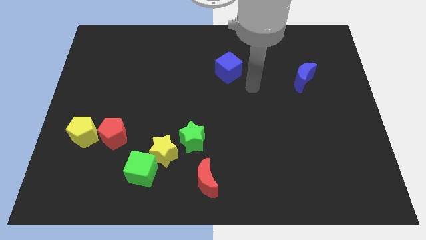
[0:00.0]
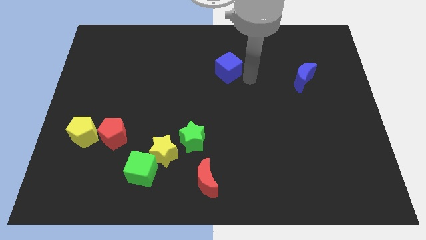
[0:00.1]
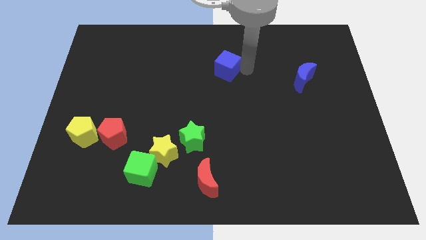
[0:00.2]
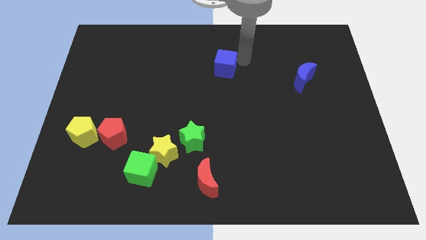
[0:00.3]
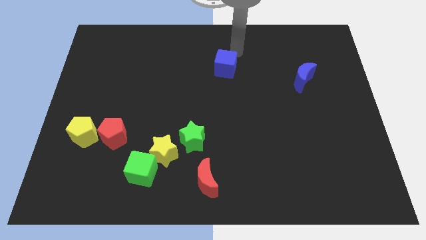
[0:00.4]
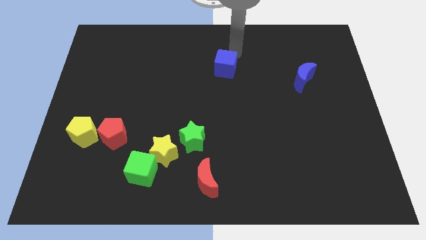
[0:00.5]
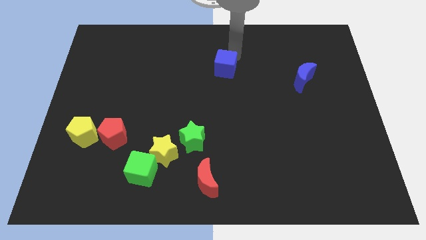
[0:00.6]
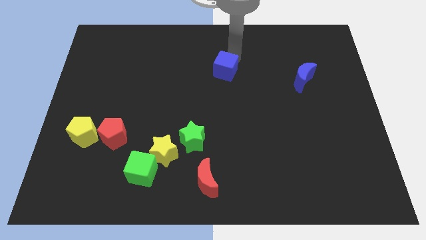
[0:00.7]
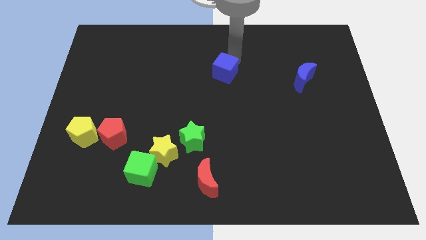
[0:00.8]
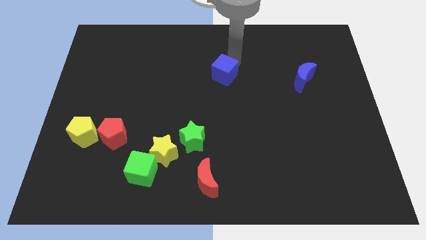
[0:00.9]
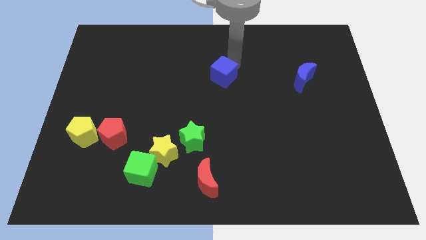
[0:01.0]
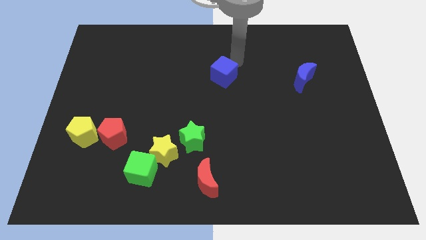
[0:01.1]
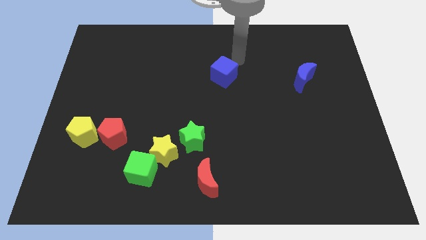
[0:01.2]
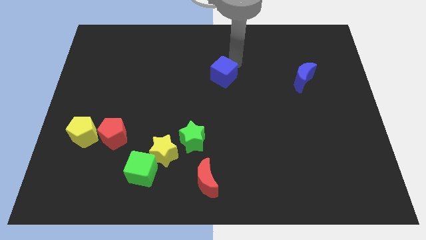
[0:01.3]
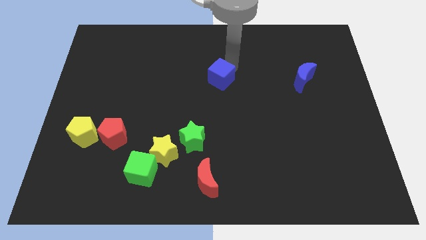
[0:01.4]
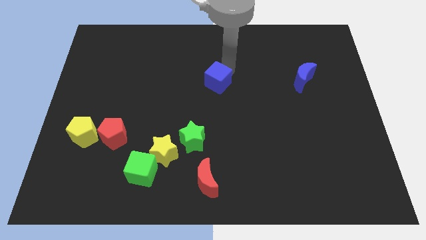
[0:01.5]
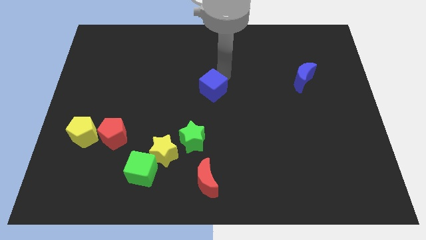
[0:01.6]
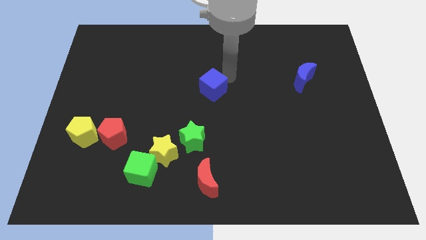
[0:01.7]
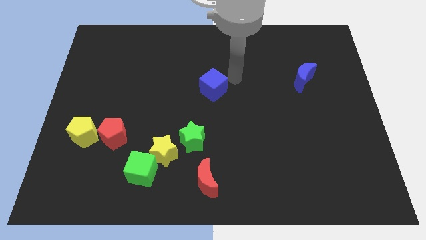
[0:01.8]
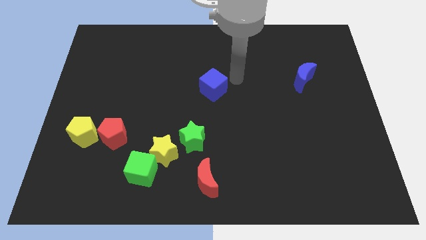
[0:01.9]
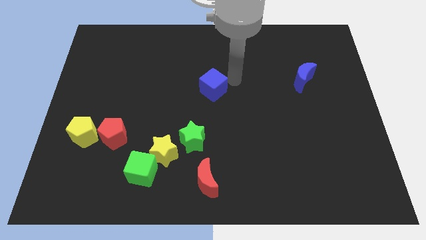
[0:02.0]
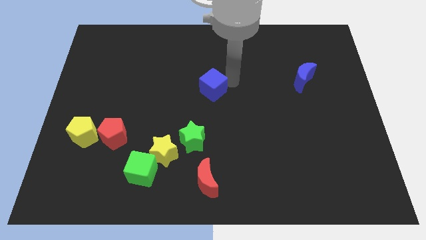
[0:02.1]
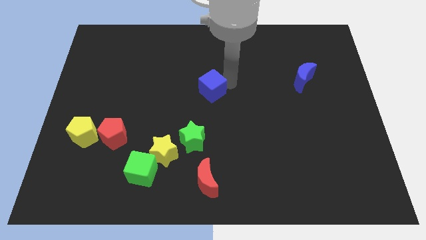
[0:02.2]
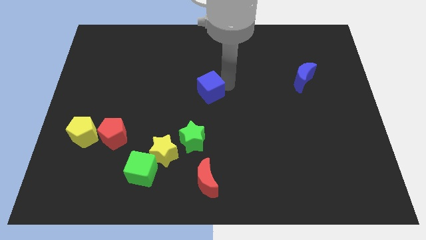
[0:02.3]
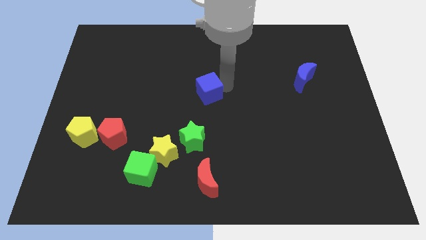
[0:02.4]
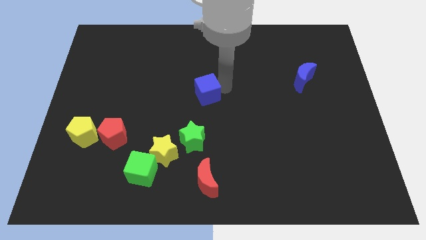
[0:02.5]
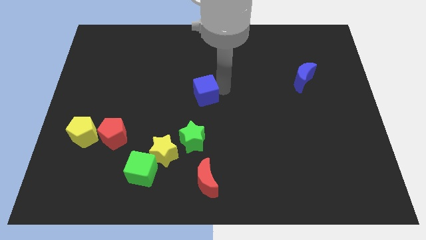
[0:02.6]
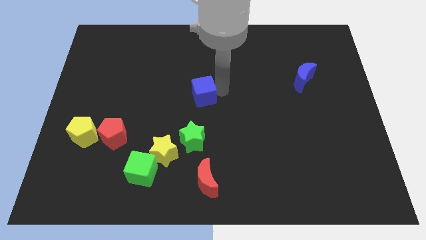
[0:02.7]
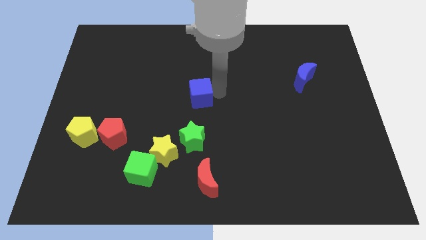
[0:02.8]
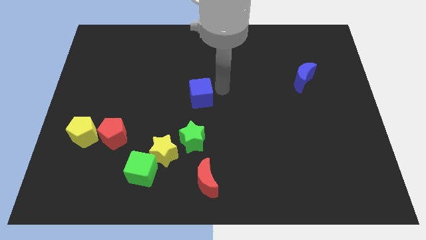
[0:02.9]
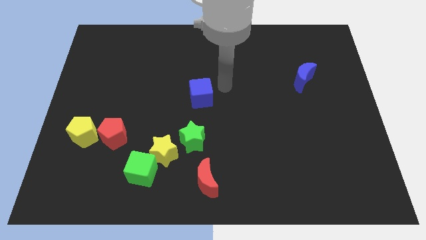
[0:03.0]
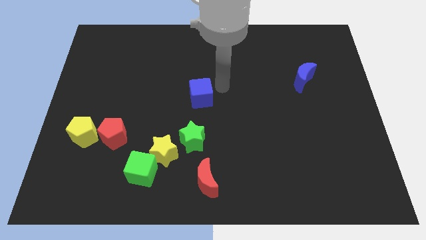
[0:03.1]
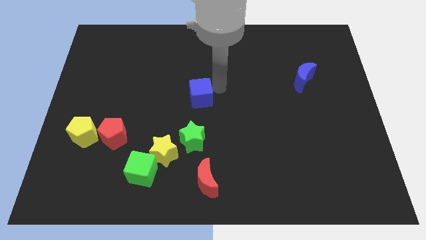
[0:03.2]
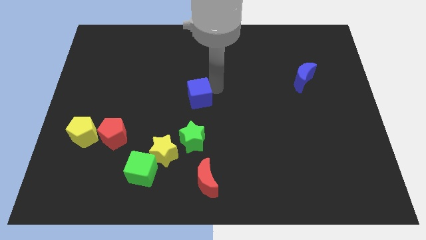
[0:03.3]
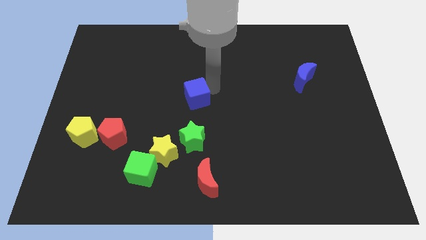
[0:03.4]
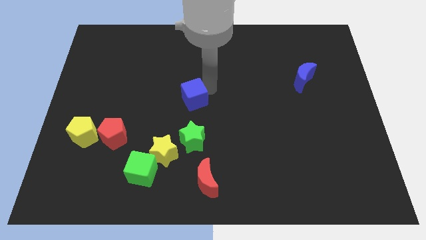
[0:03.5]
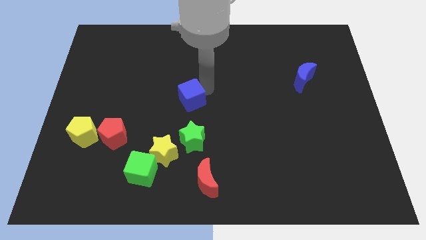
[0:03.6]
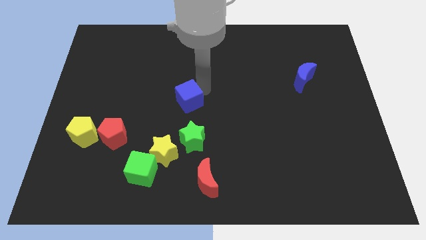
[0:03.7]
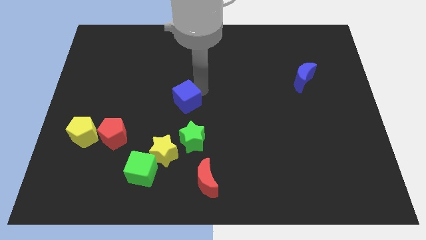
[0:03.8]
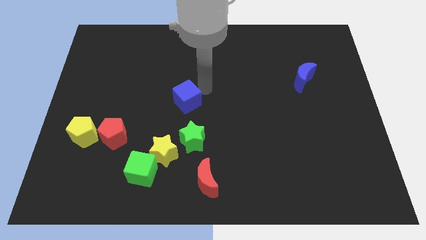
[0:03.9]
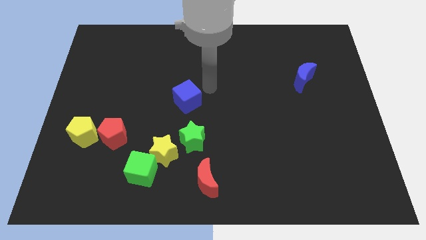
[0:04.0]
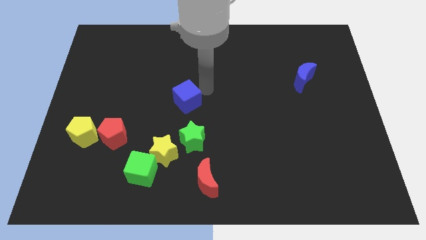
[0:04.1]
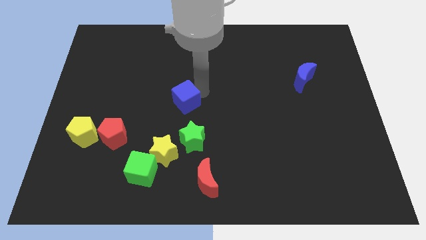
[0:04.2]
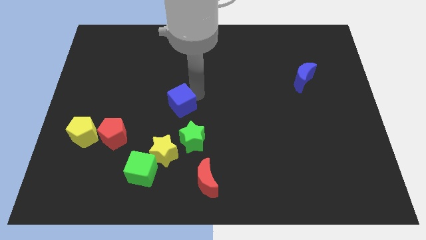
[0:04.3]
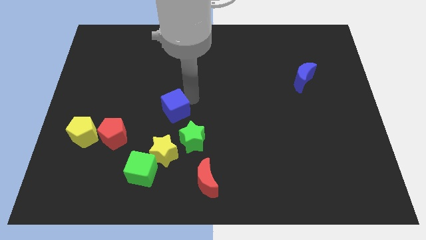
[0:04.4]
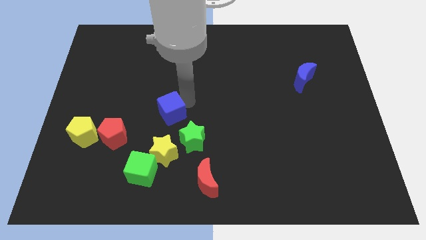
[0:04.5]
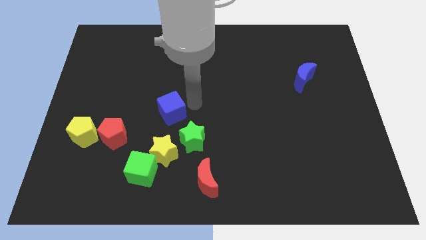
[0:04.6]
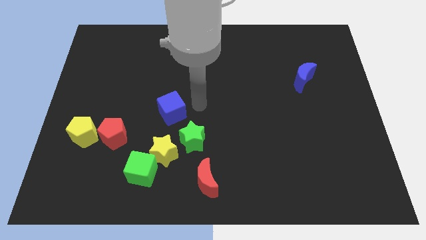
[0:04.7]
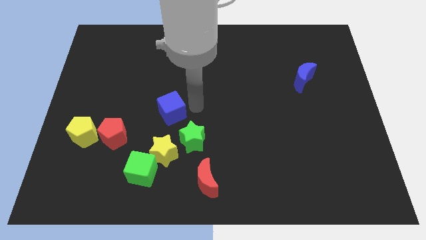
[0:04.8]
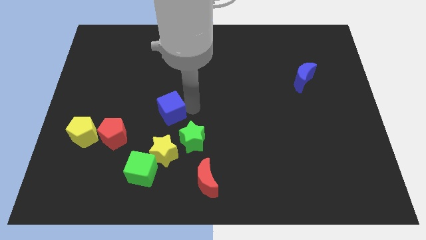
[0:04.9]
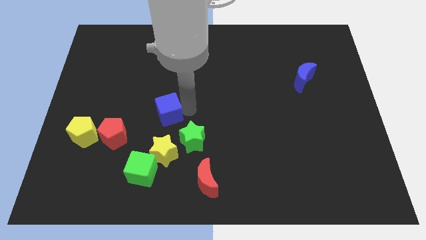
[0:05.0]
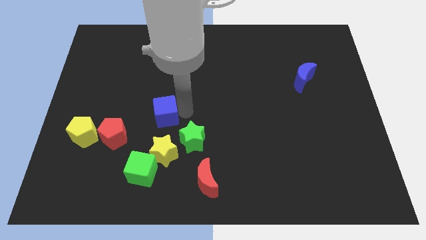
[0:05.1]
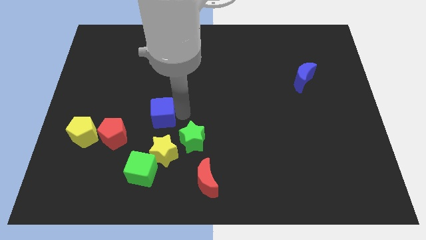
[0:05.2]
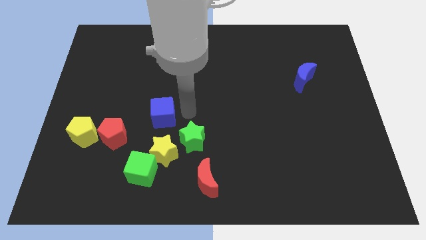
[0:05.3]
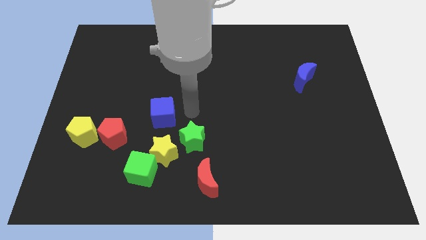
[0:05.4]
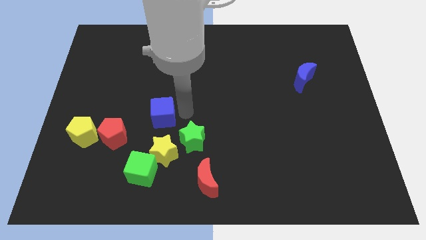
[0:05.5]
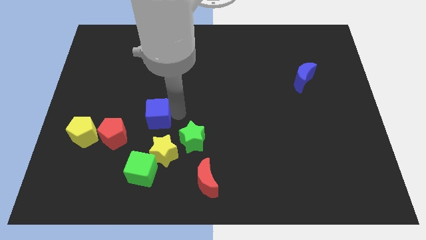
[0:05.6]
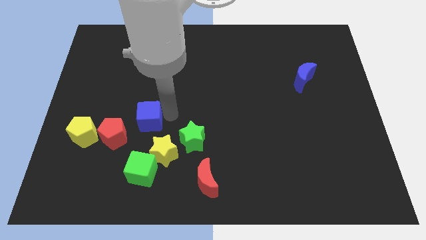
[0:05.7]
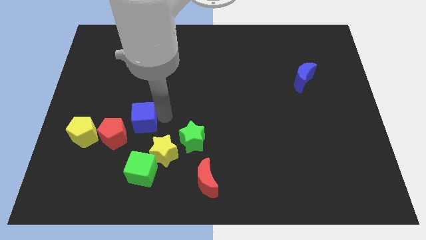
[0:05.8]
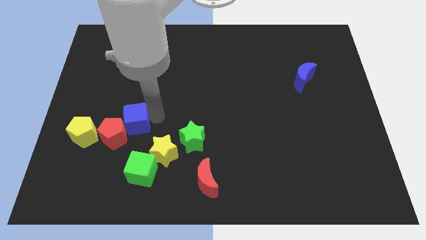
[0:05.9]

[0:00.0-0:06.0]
put the blue cube next to the red pentagon

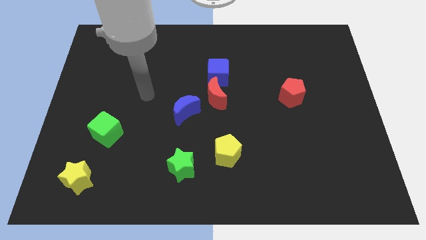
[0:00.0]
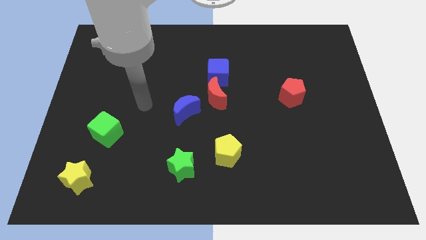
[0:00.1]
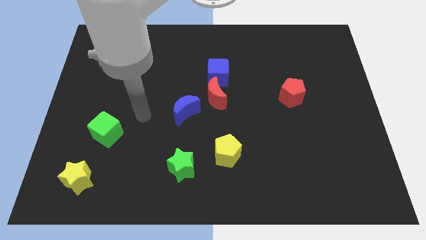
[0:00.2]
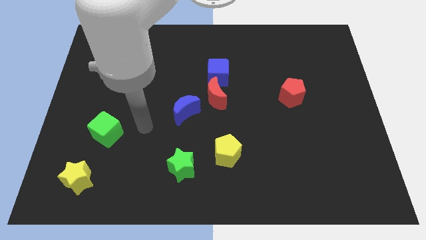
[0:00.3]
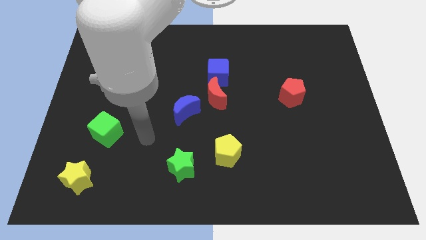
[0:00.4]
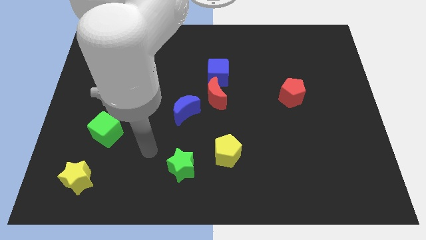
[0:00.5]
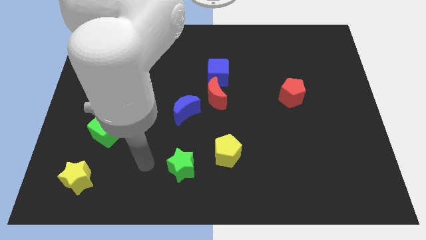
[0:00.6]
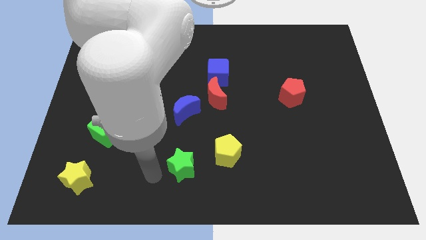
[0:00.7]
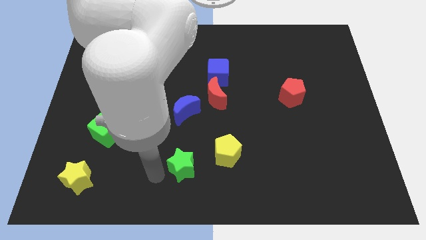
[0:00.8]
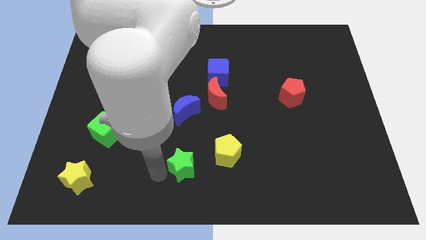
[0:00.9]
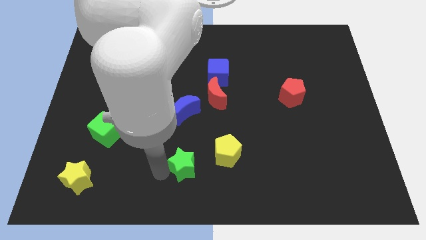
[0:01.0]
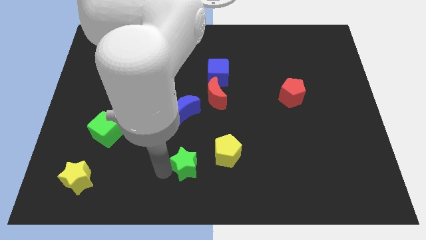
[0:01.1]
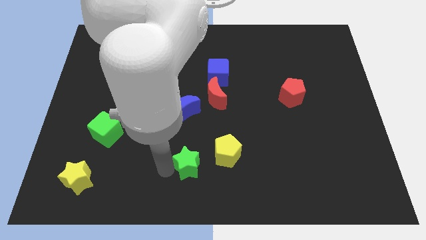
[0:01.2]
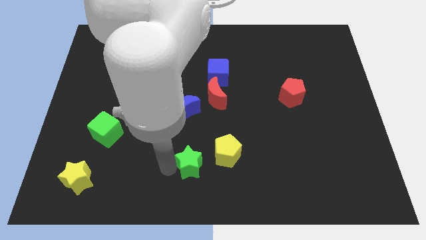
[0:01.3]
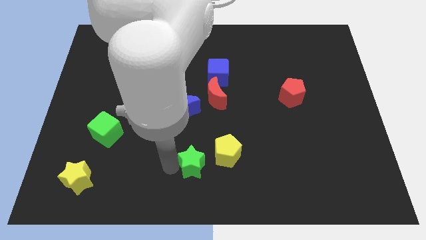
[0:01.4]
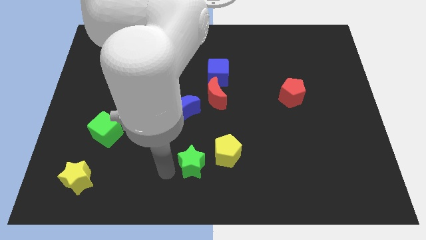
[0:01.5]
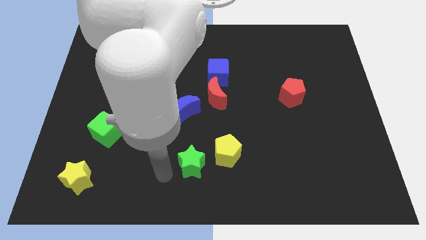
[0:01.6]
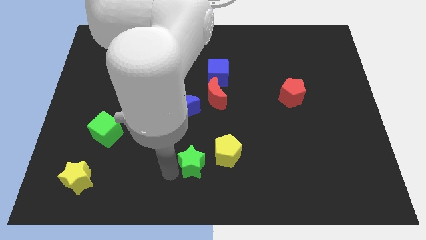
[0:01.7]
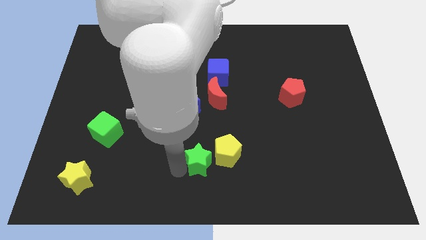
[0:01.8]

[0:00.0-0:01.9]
move the green star towards the yellow pentagon
